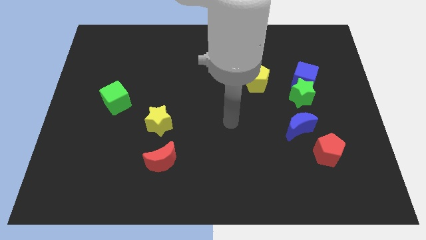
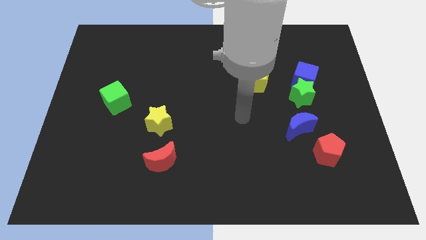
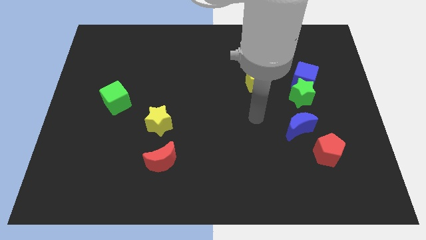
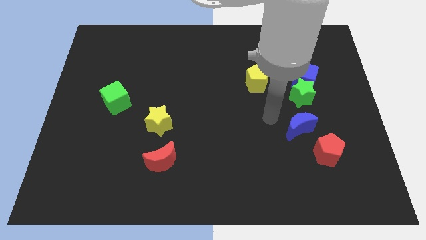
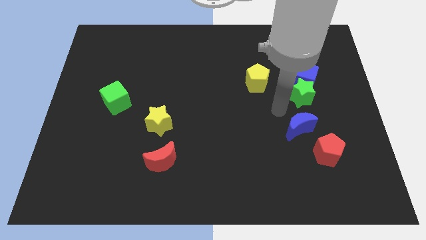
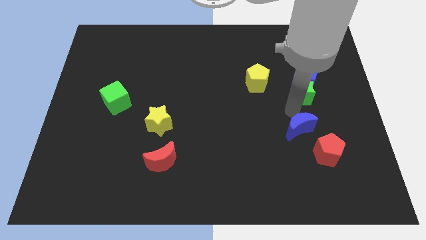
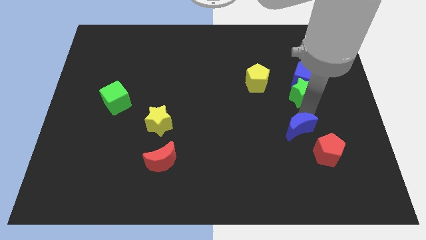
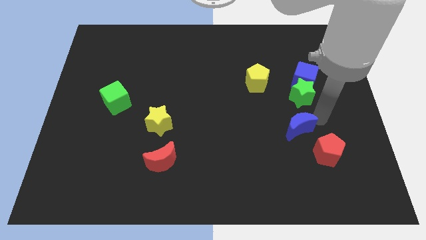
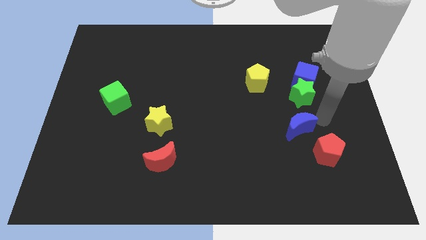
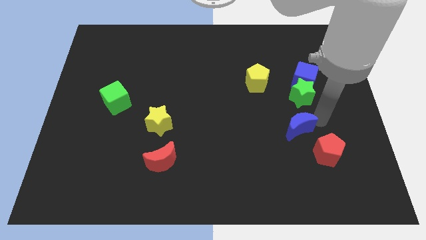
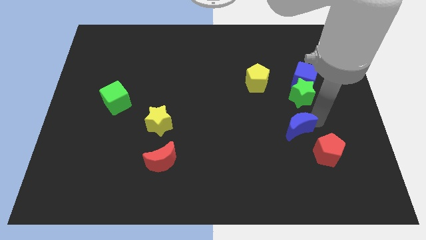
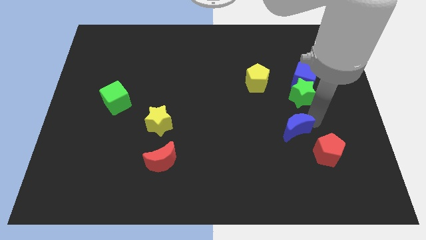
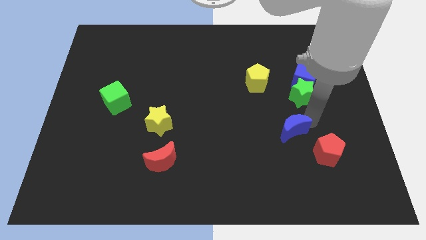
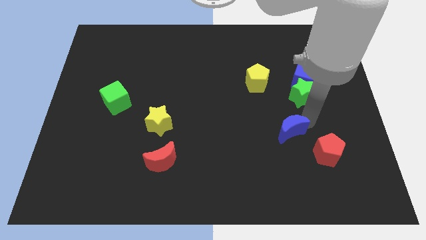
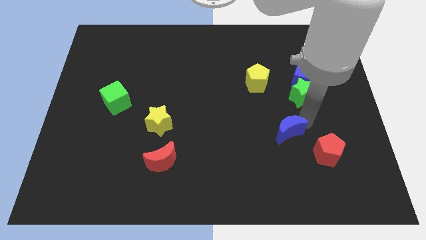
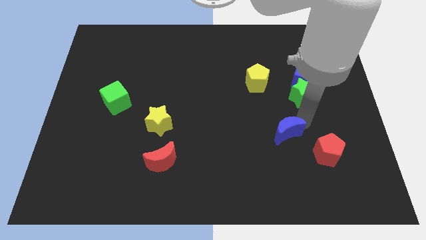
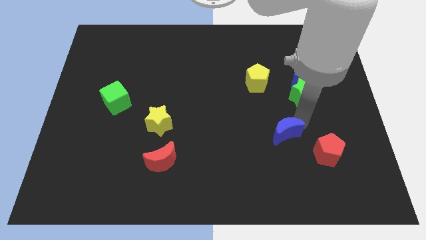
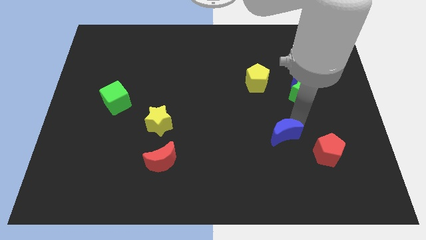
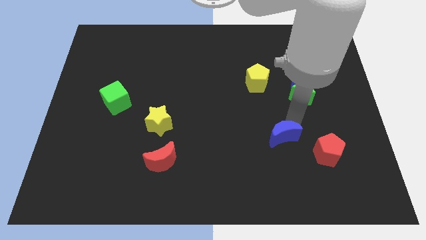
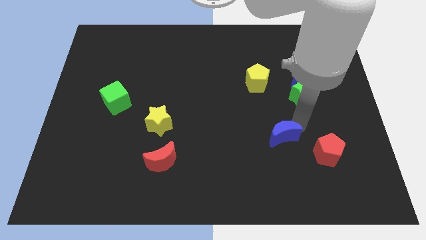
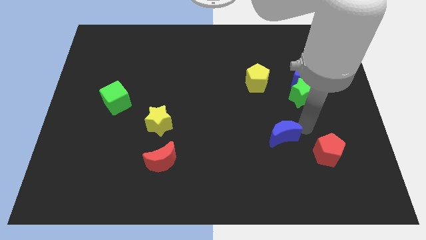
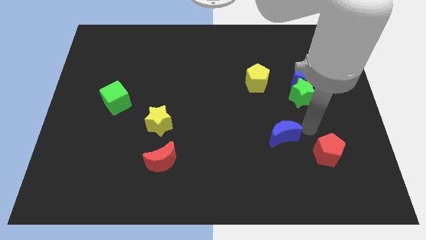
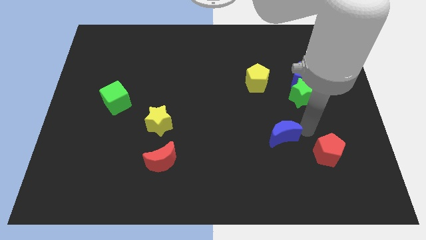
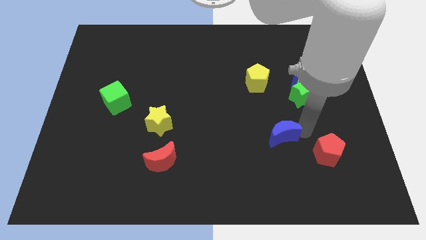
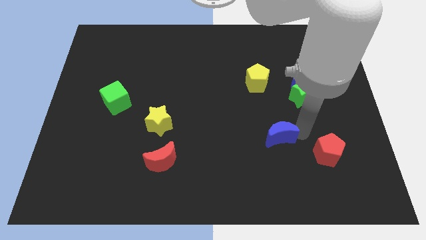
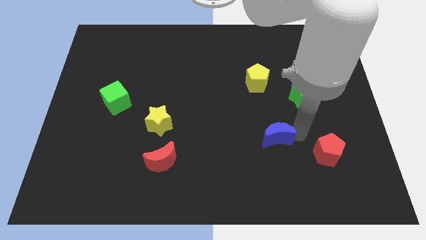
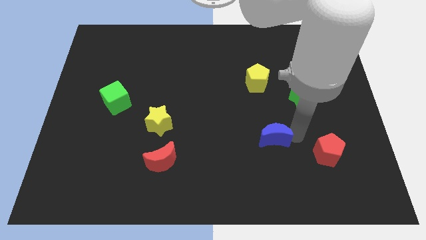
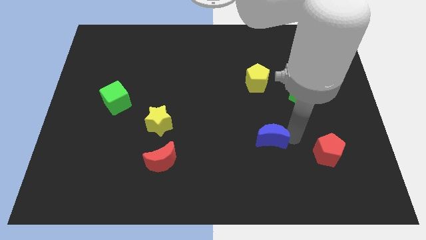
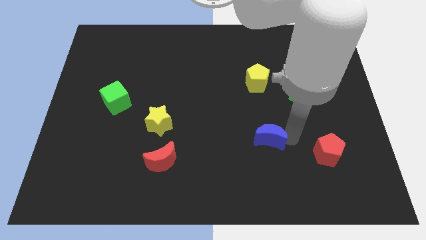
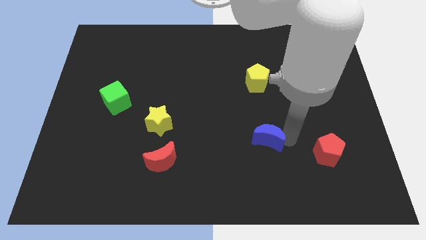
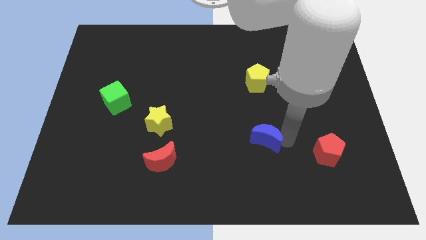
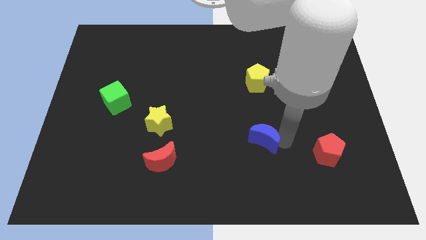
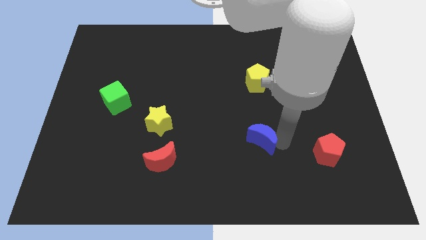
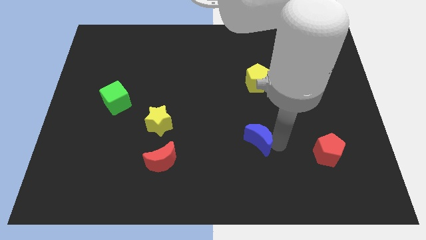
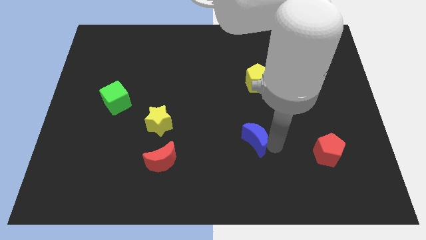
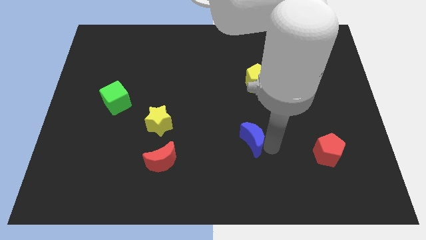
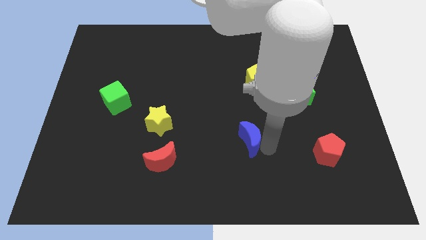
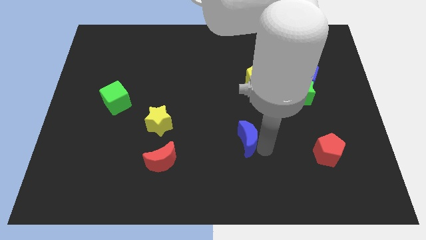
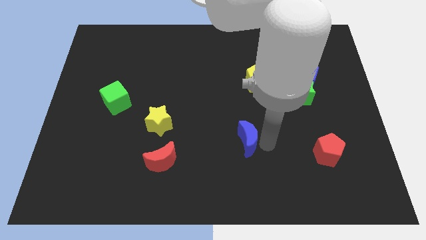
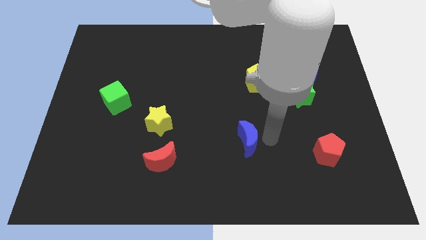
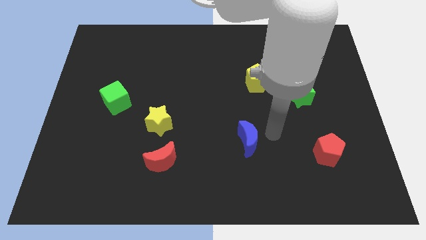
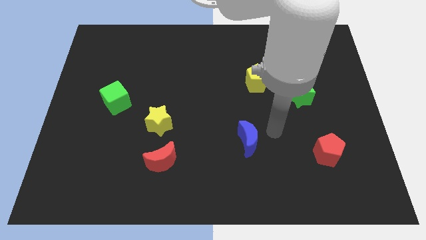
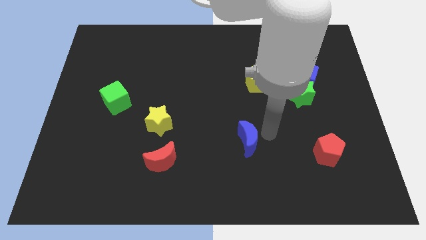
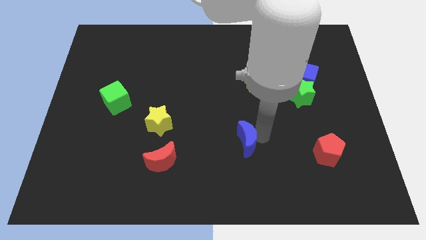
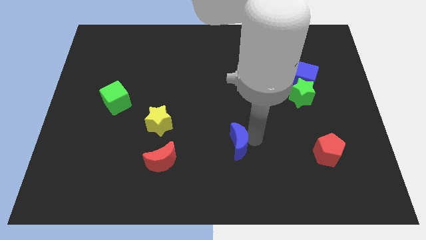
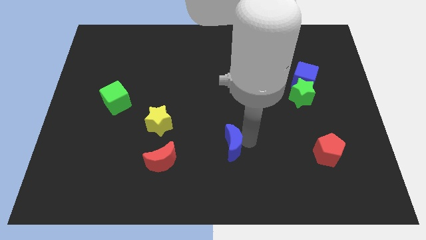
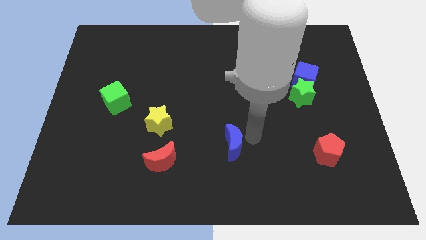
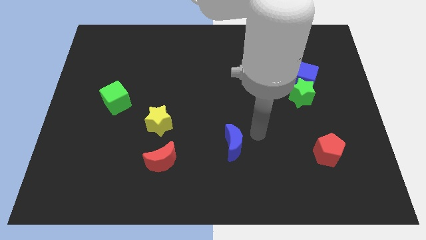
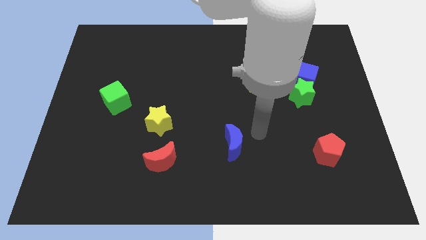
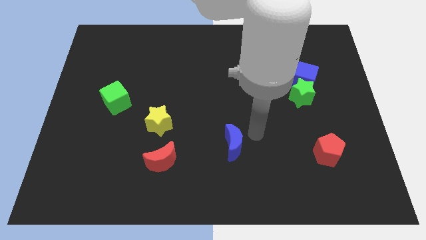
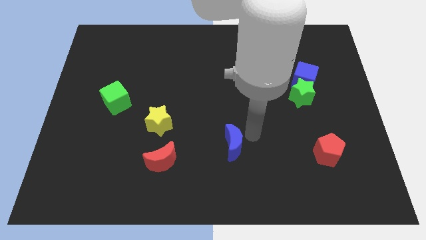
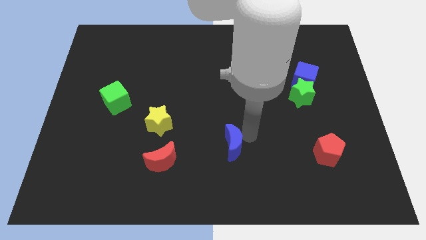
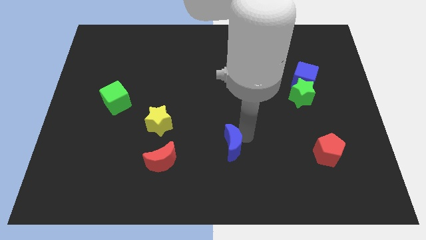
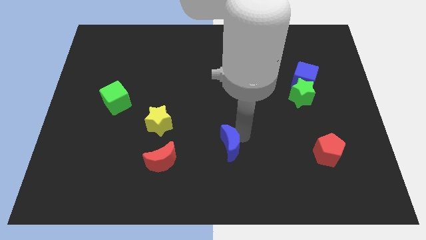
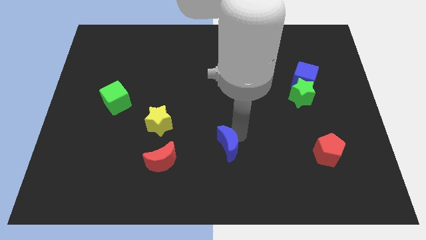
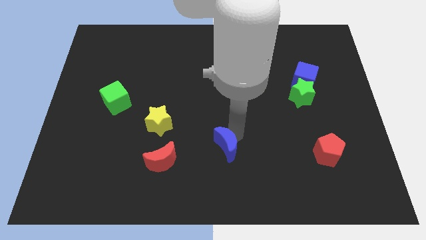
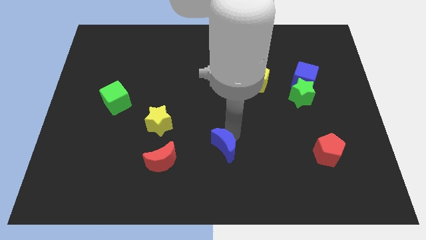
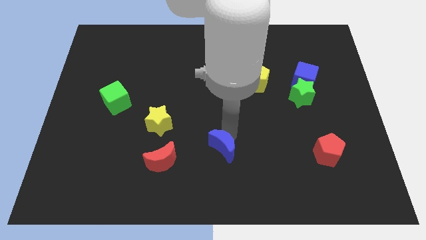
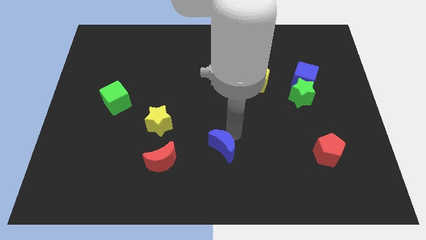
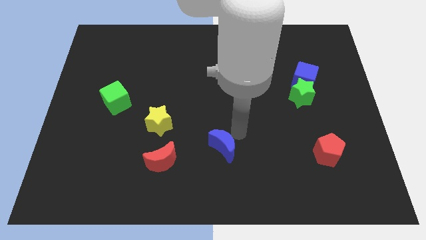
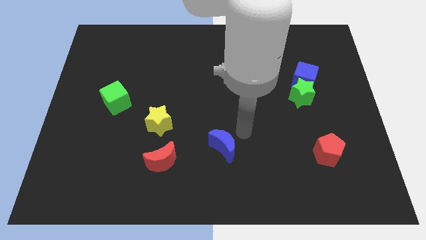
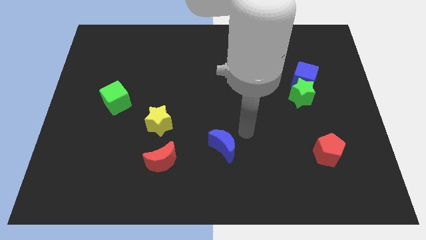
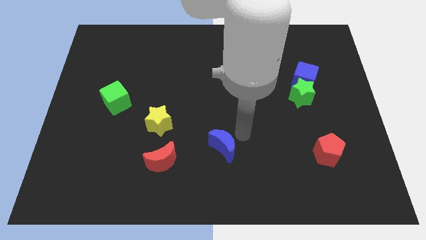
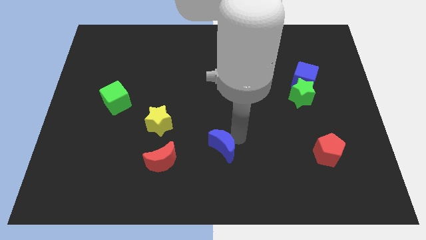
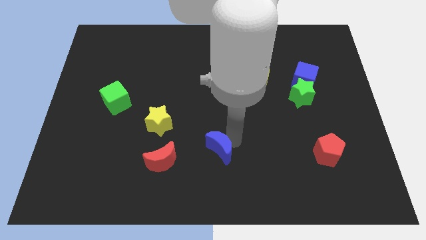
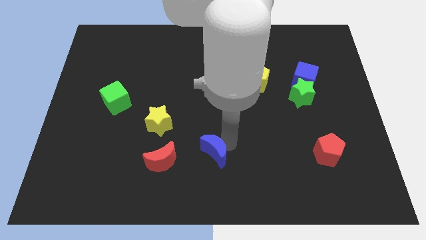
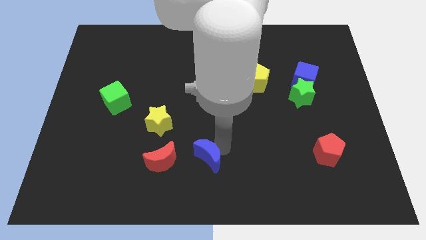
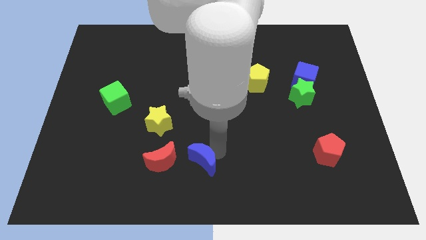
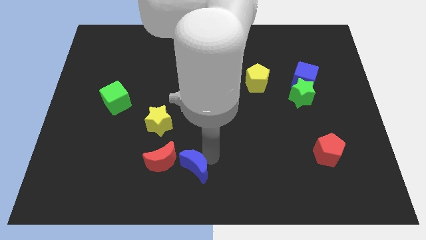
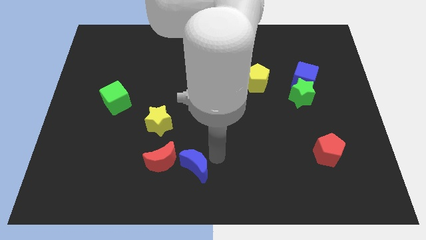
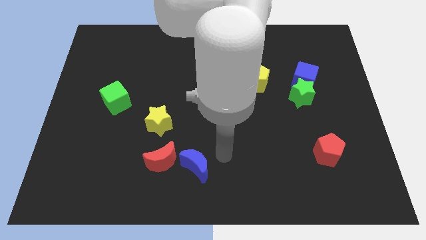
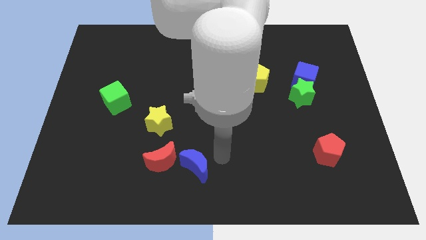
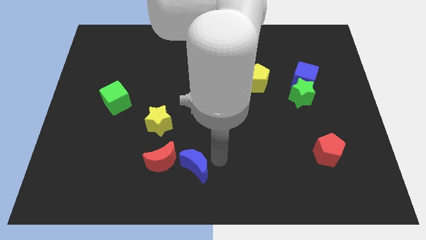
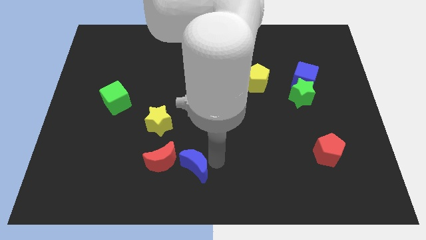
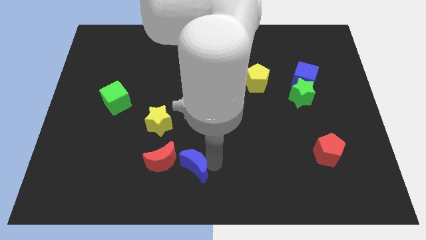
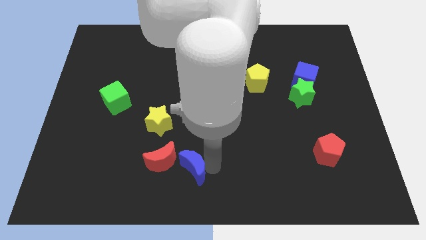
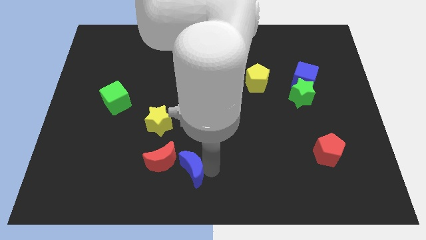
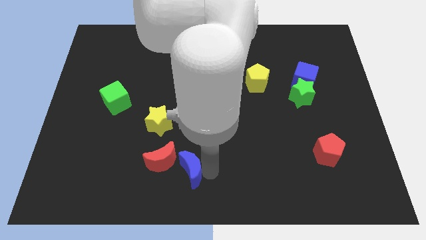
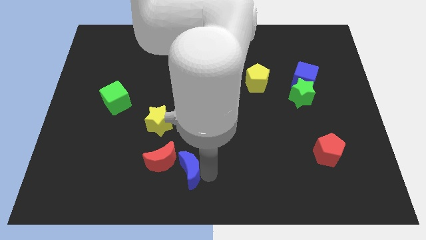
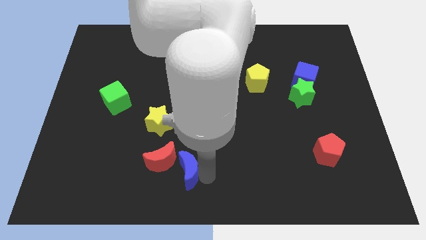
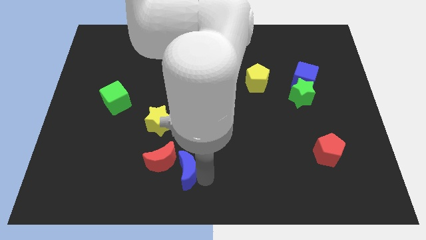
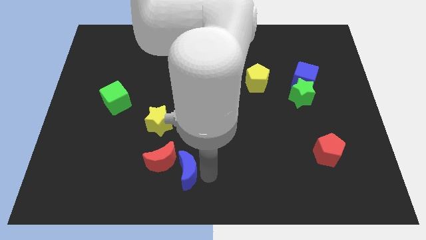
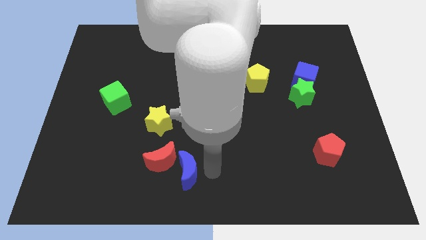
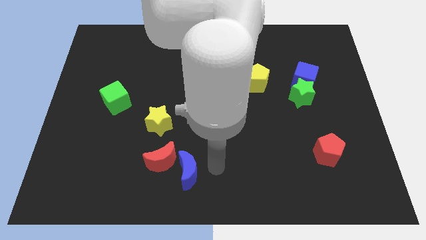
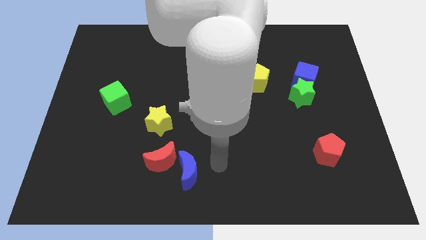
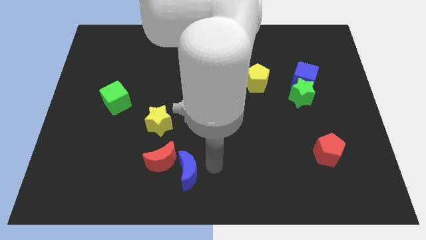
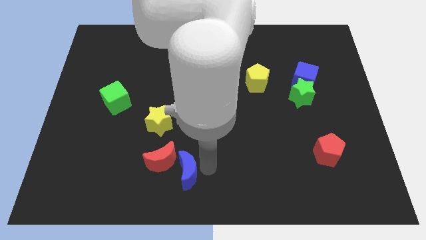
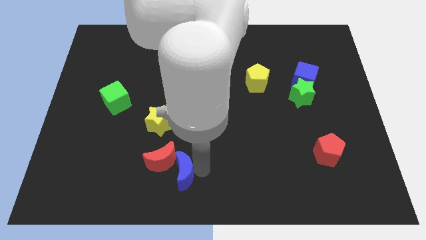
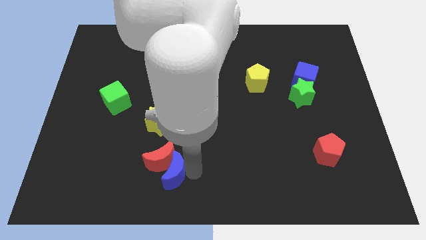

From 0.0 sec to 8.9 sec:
push the blue moon to the bottom of the yellow star
